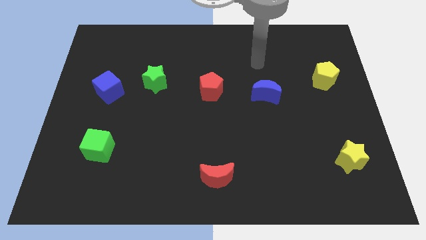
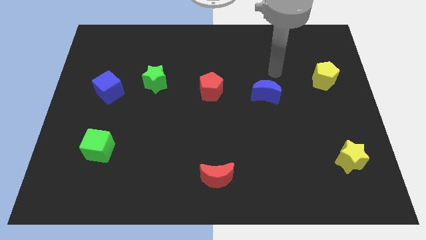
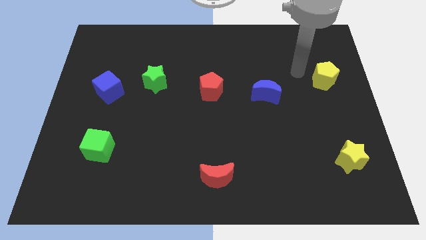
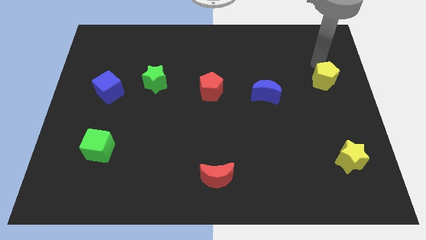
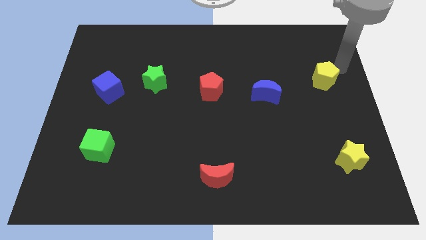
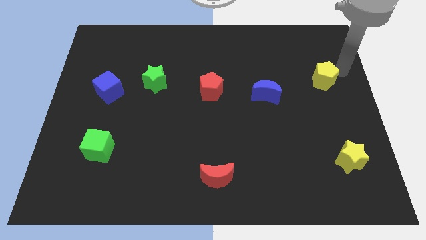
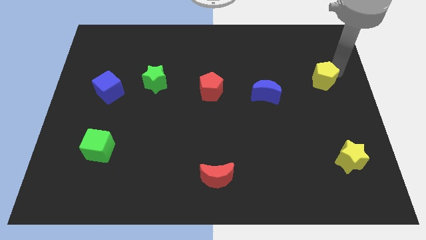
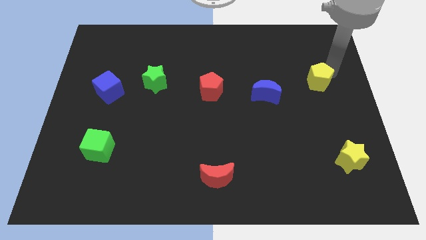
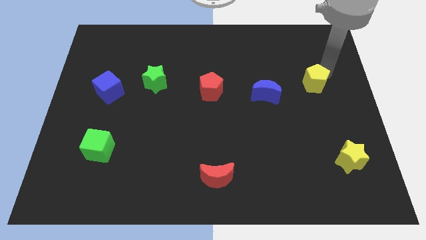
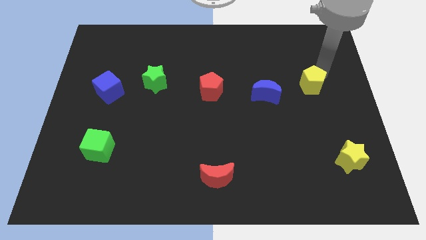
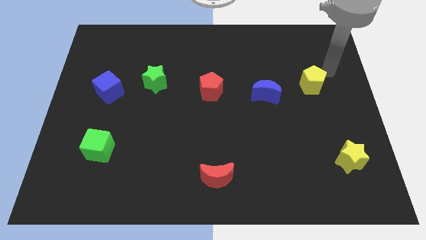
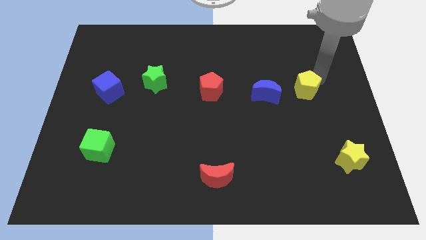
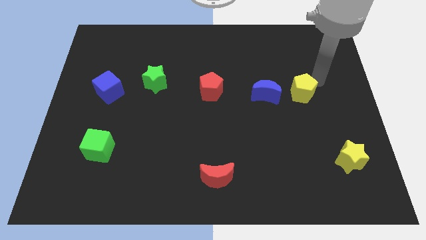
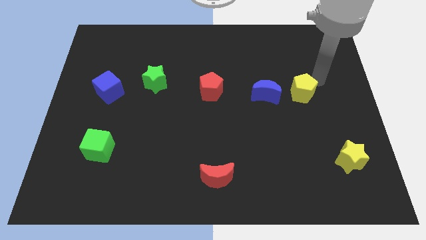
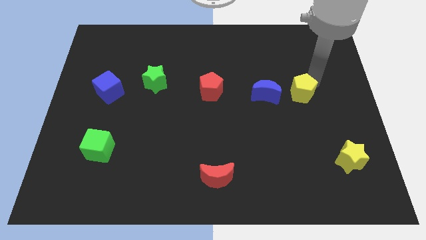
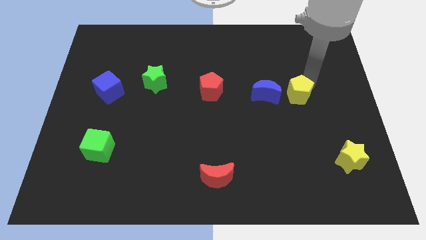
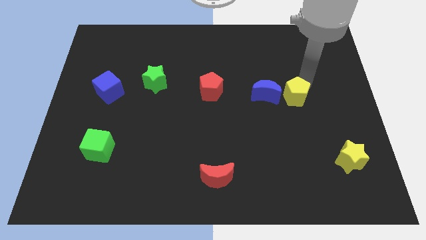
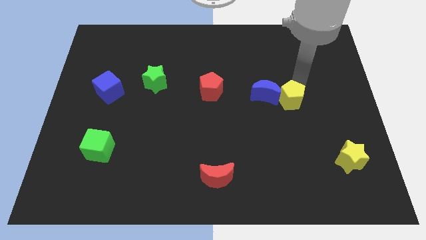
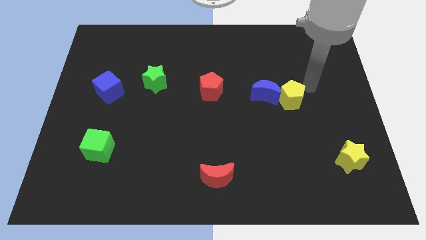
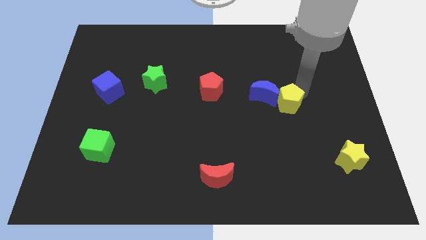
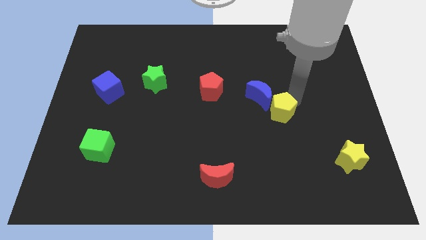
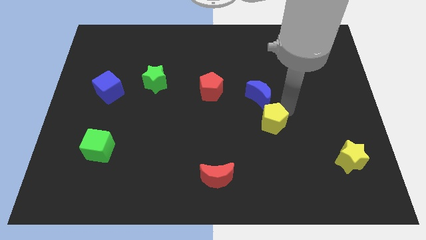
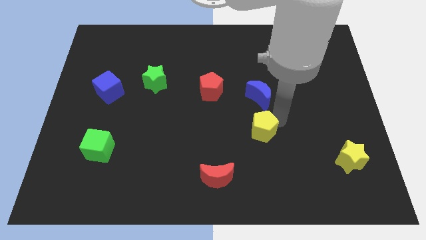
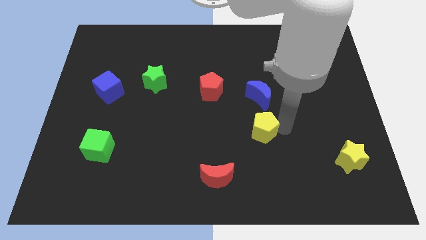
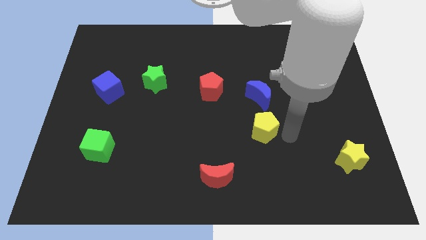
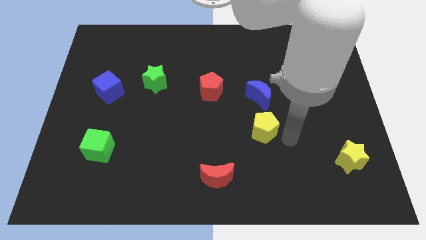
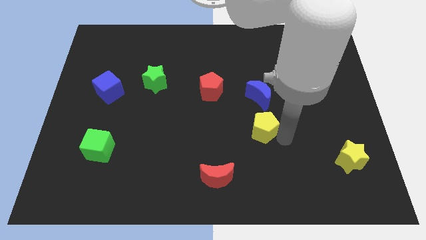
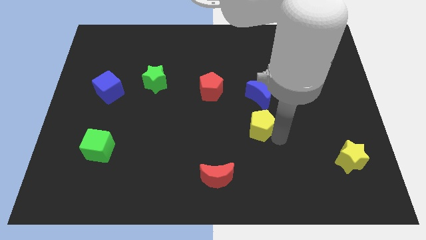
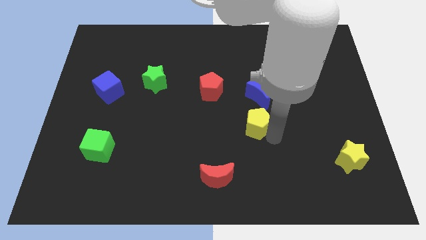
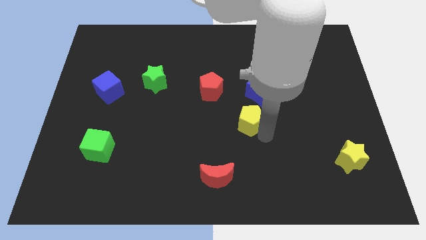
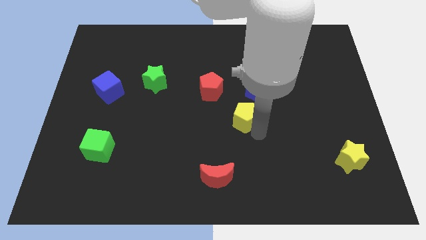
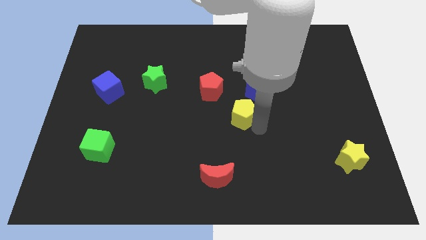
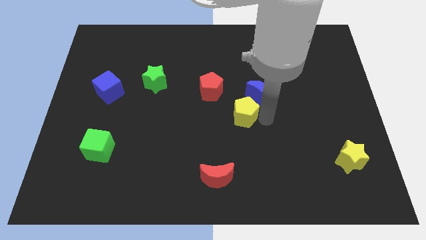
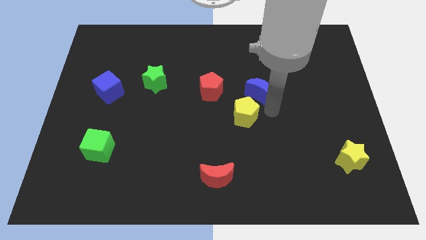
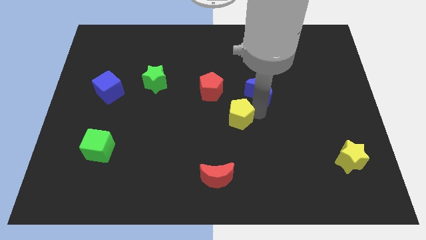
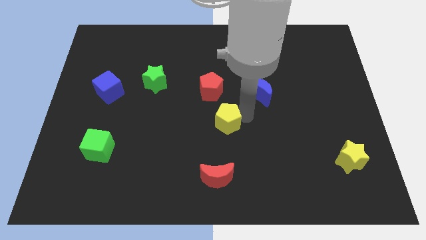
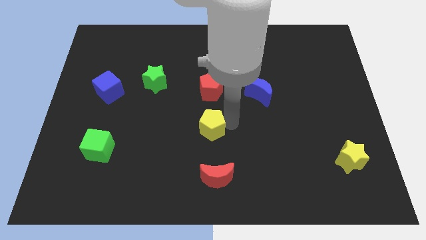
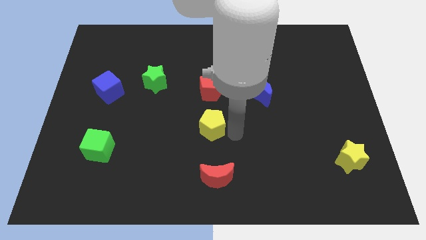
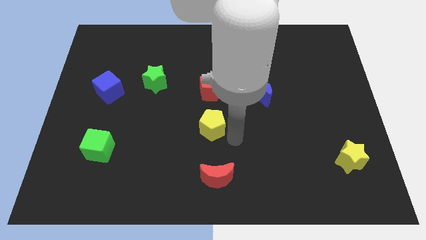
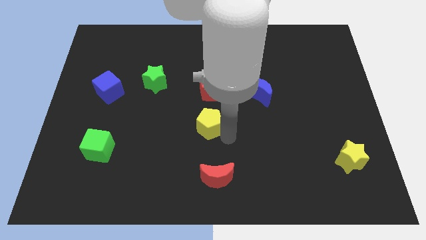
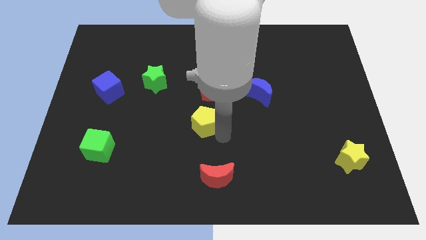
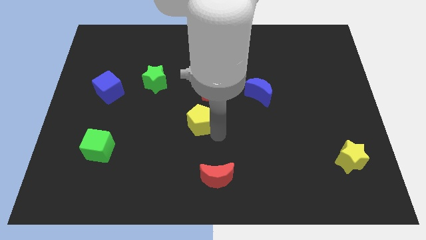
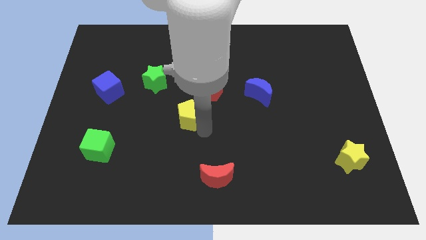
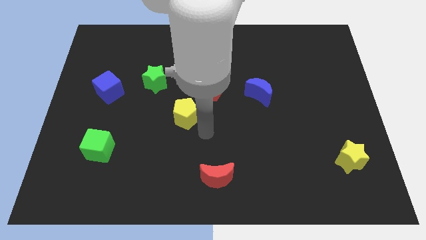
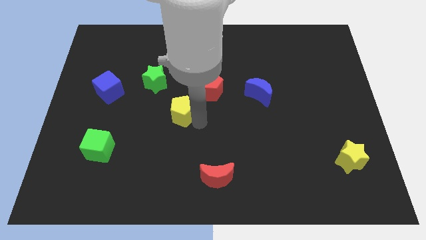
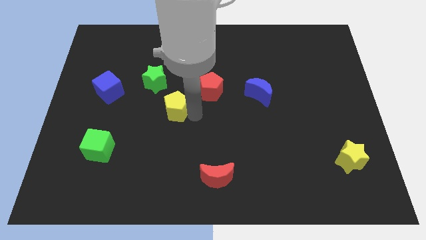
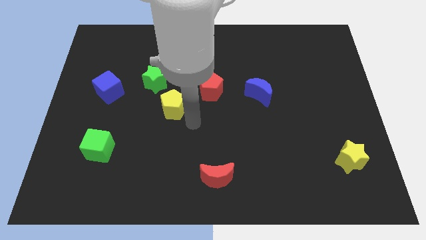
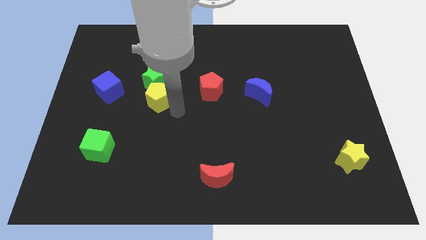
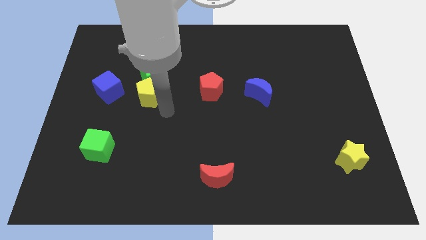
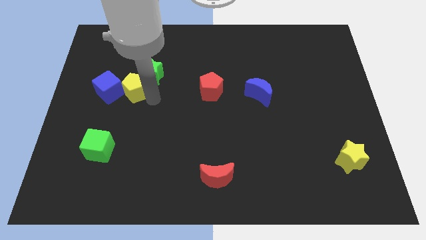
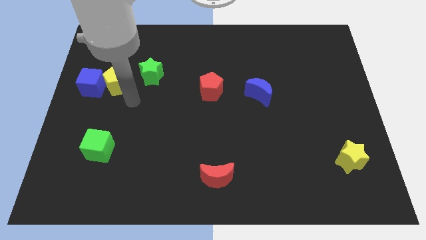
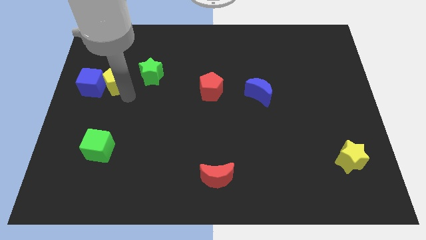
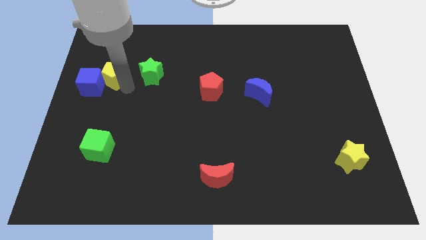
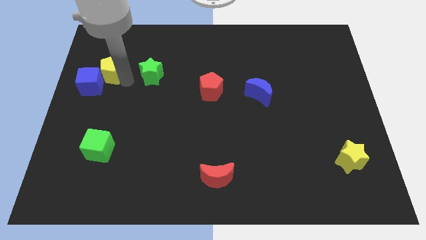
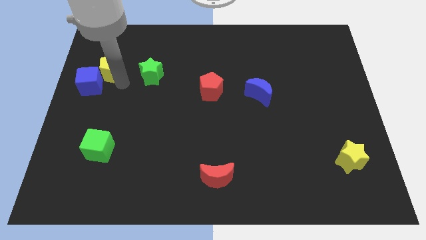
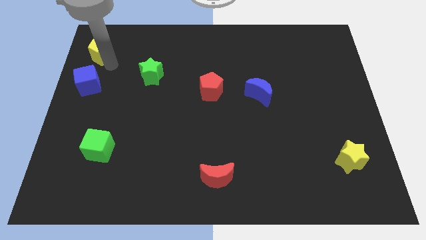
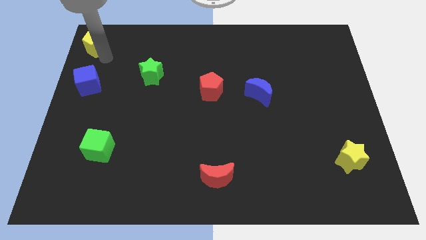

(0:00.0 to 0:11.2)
put the yellow pentagon to the top left of the board
